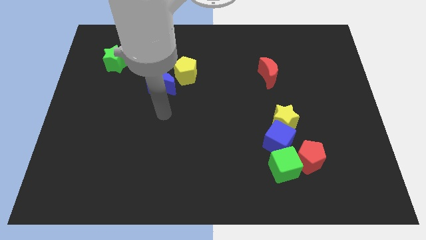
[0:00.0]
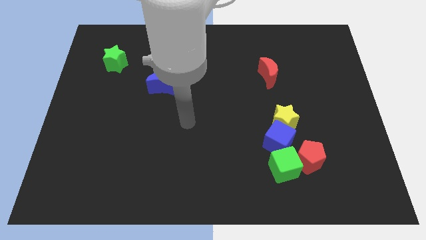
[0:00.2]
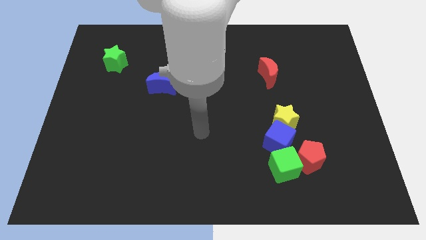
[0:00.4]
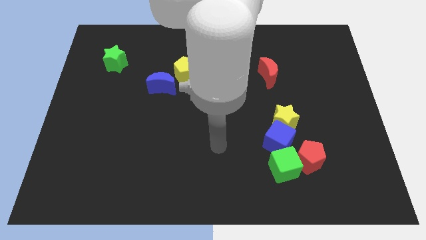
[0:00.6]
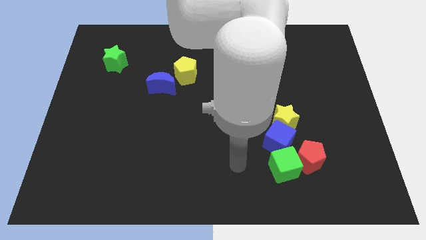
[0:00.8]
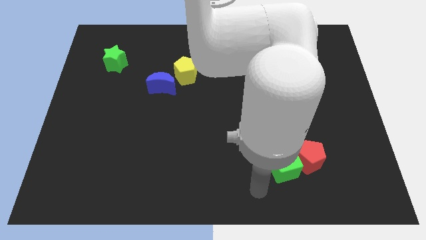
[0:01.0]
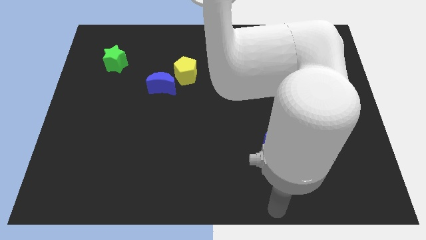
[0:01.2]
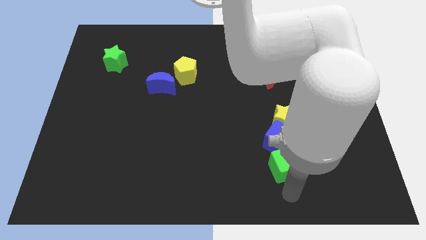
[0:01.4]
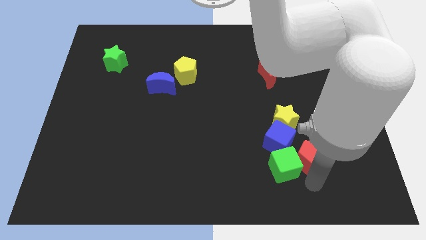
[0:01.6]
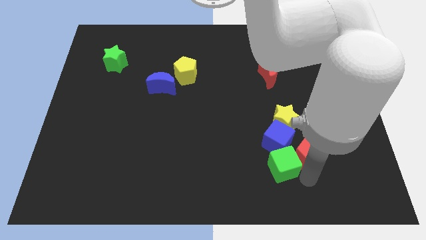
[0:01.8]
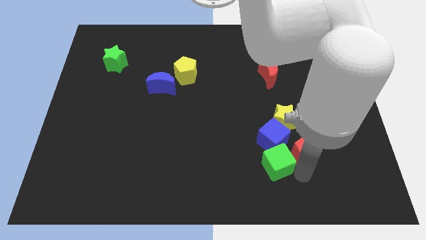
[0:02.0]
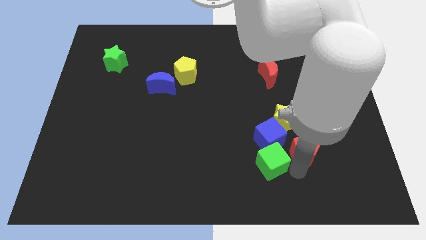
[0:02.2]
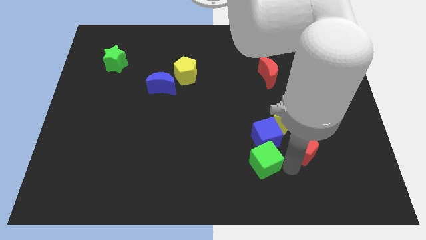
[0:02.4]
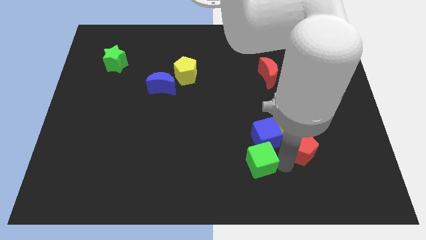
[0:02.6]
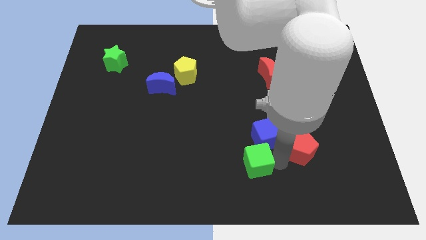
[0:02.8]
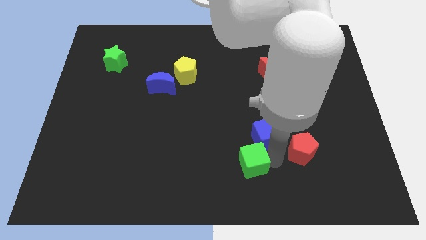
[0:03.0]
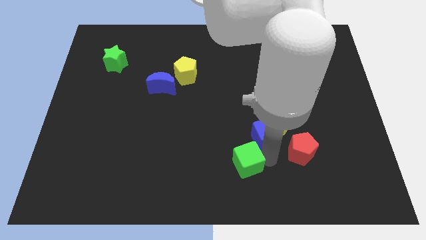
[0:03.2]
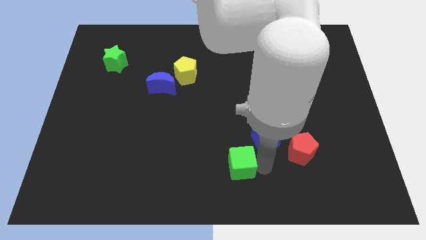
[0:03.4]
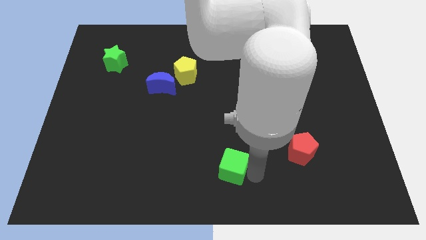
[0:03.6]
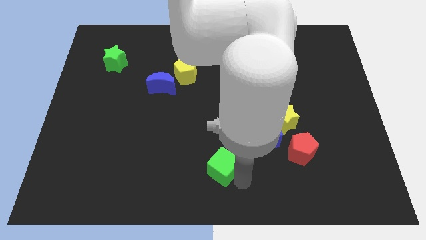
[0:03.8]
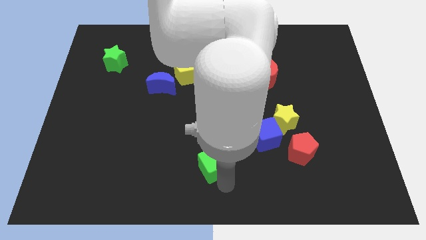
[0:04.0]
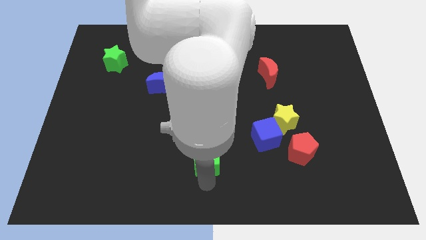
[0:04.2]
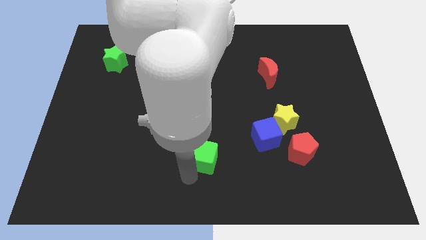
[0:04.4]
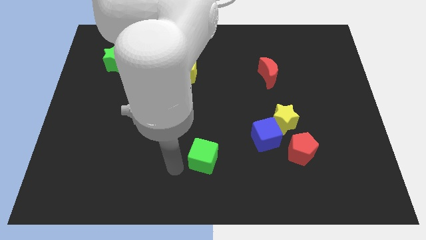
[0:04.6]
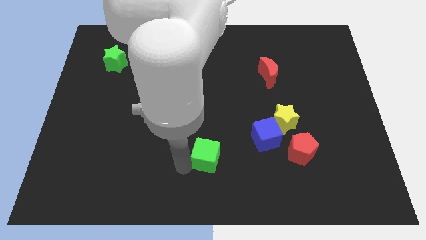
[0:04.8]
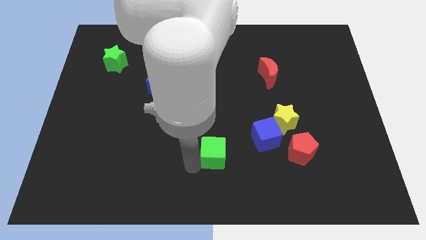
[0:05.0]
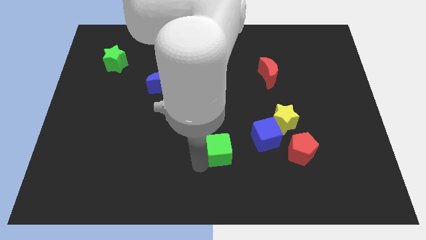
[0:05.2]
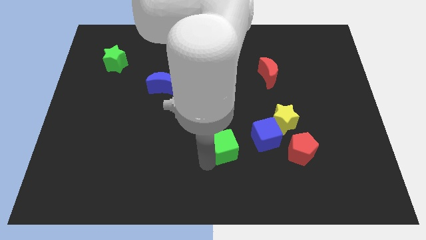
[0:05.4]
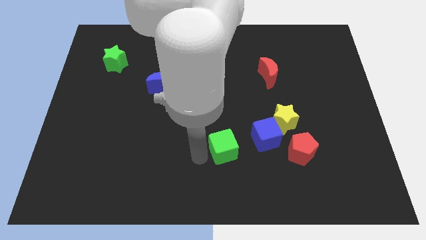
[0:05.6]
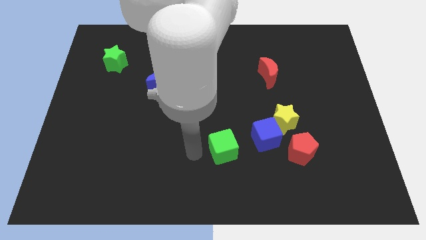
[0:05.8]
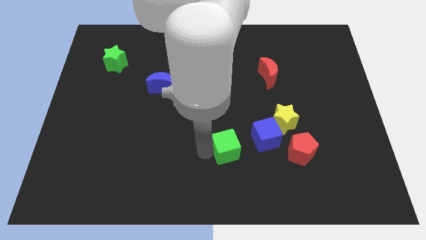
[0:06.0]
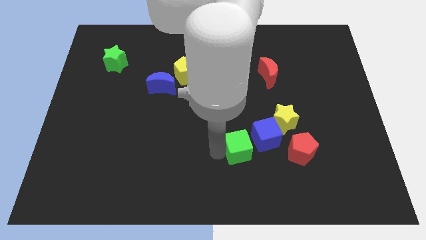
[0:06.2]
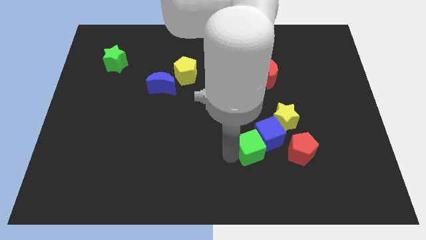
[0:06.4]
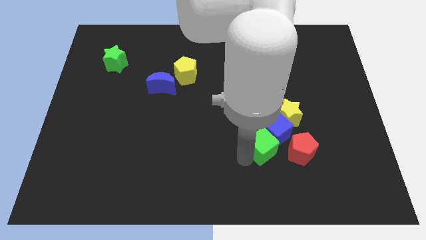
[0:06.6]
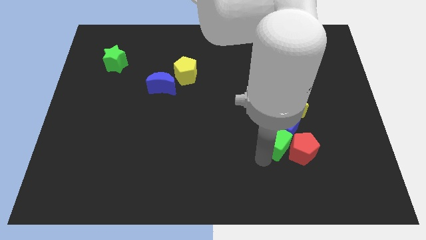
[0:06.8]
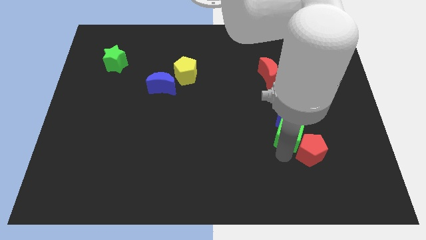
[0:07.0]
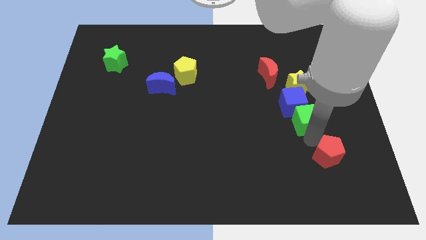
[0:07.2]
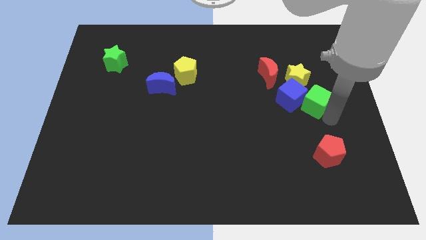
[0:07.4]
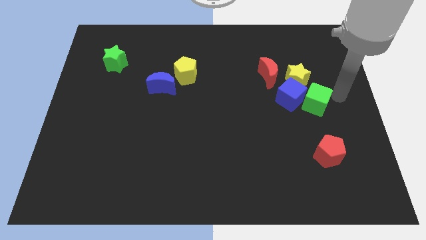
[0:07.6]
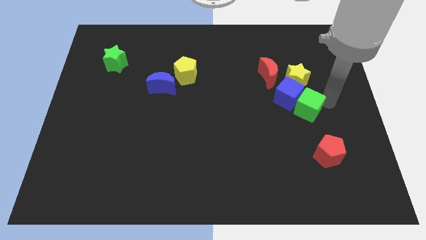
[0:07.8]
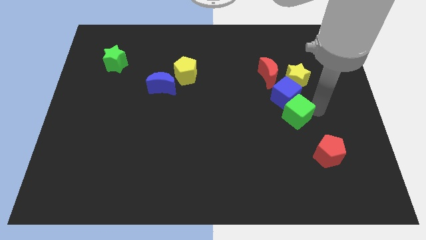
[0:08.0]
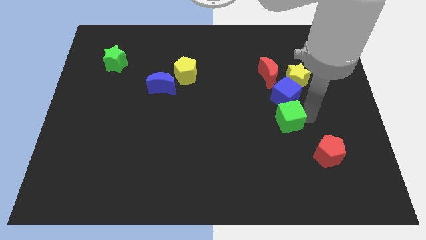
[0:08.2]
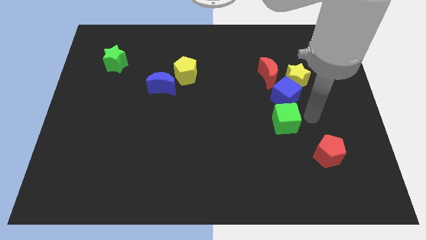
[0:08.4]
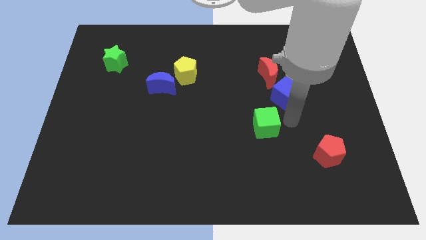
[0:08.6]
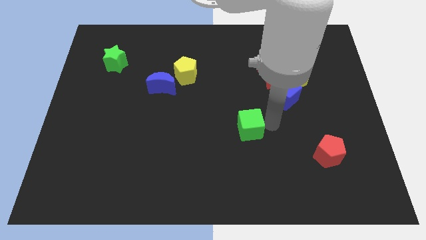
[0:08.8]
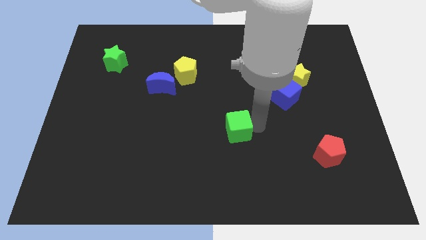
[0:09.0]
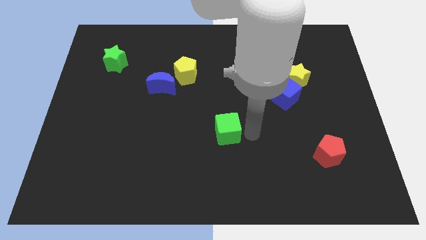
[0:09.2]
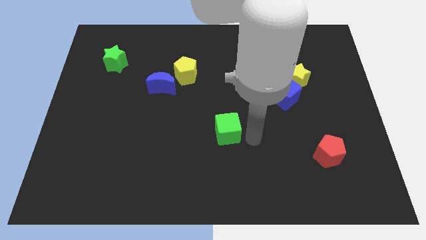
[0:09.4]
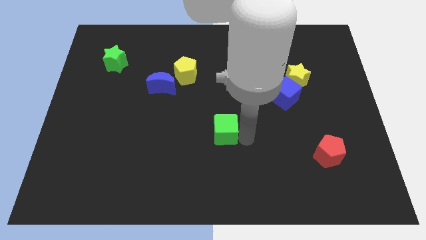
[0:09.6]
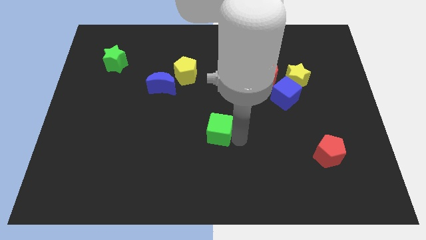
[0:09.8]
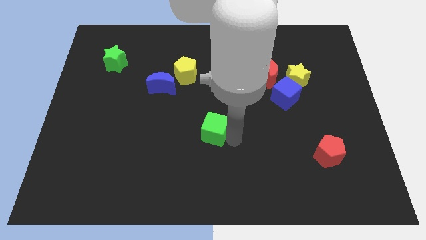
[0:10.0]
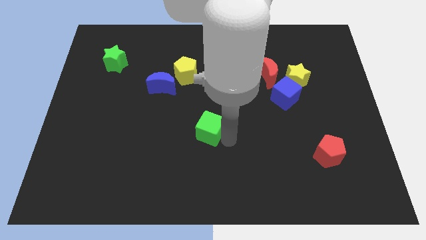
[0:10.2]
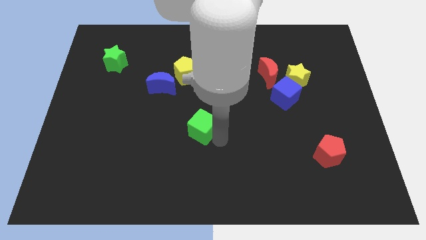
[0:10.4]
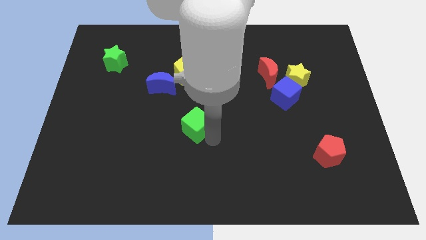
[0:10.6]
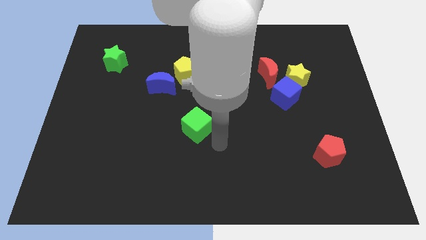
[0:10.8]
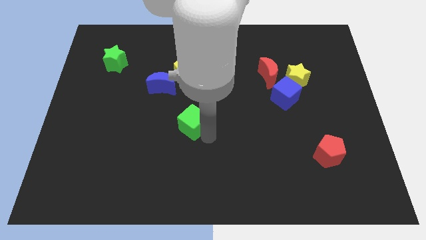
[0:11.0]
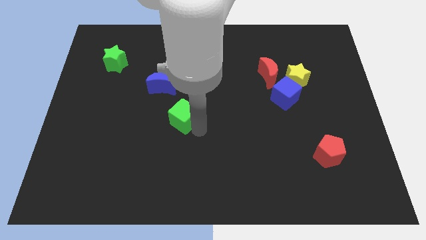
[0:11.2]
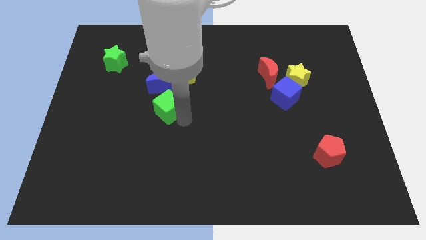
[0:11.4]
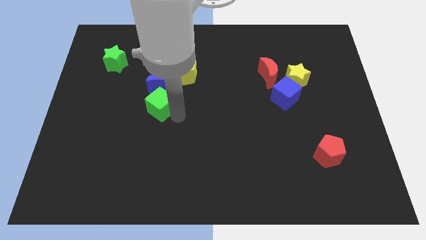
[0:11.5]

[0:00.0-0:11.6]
slide the green cube to the bottom left of the yellow pentagon

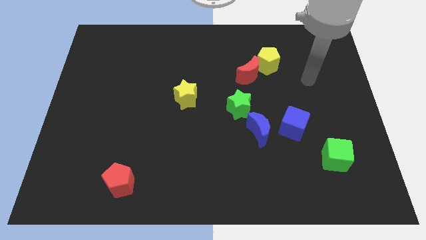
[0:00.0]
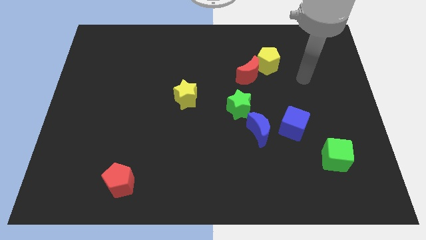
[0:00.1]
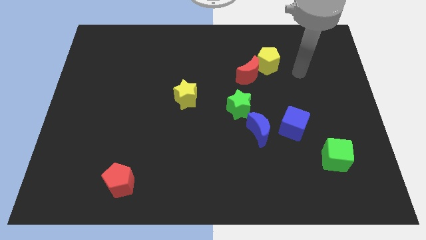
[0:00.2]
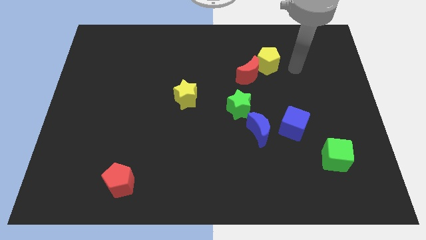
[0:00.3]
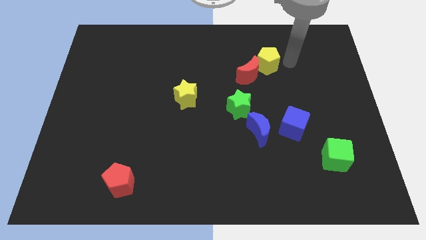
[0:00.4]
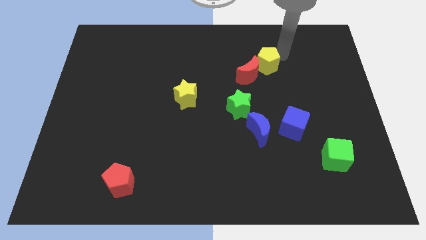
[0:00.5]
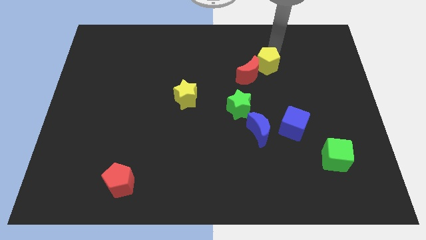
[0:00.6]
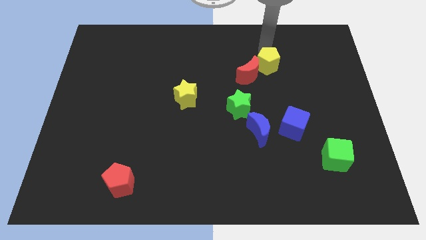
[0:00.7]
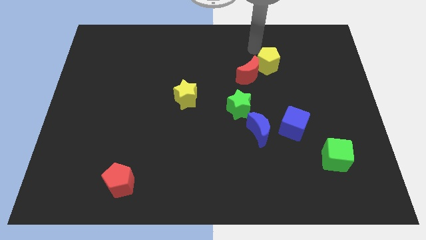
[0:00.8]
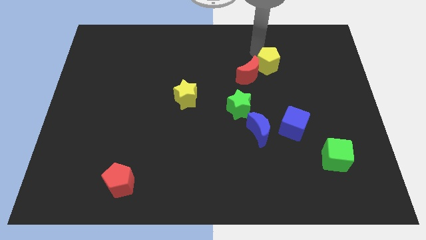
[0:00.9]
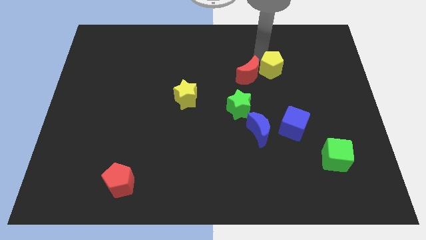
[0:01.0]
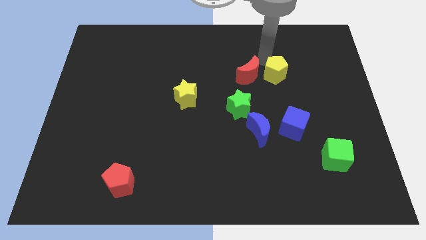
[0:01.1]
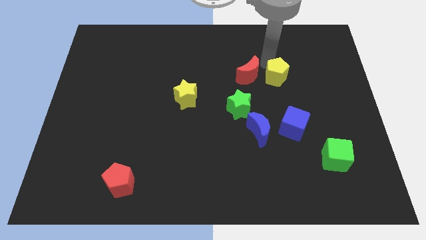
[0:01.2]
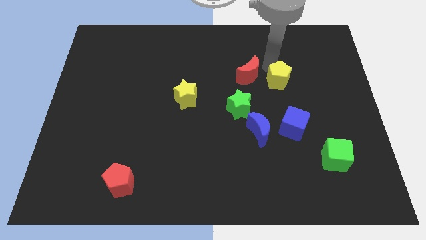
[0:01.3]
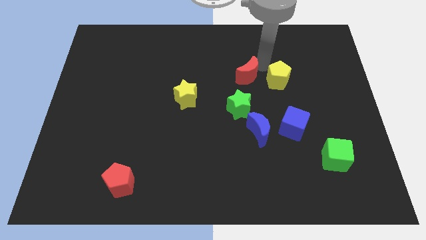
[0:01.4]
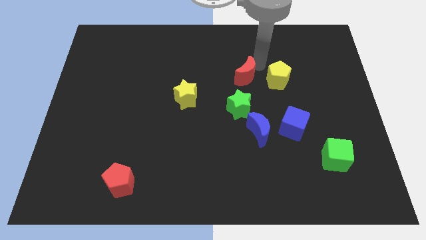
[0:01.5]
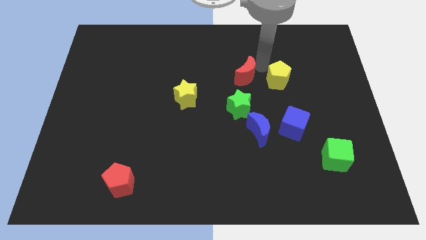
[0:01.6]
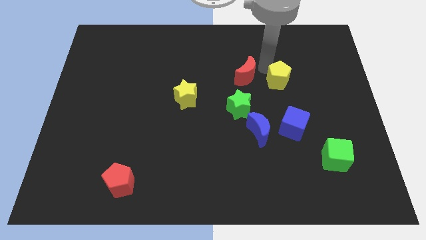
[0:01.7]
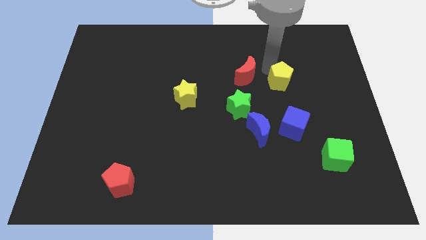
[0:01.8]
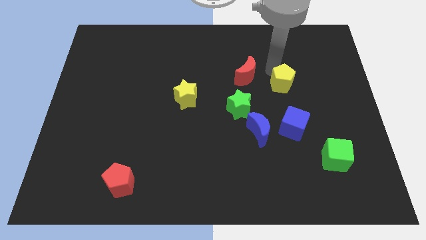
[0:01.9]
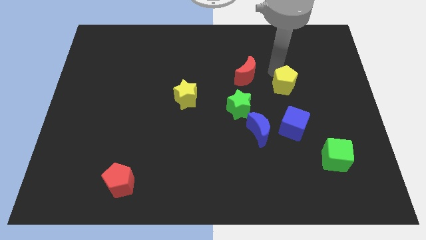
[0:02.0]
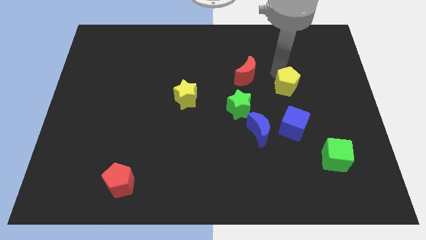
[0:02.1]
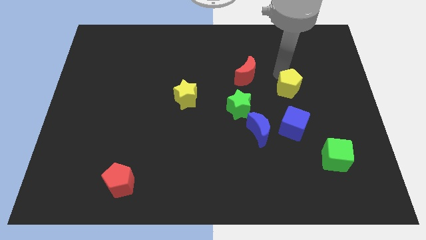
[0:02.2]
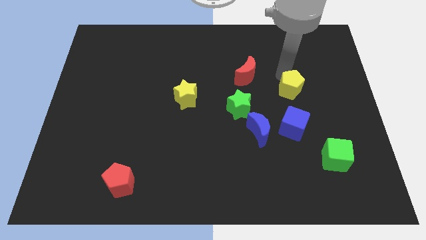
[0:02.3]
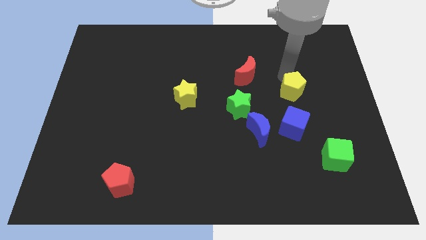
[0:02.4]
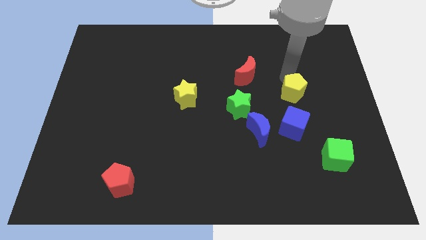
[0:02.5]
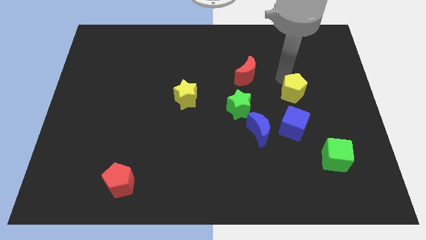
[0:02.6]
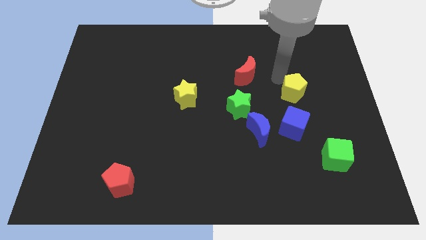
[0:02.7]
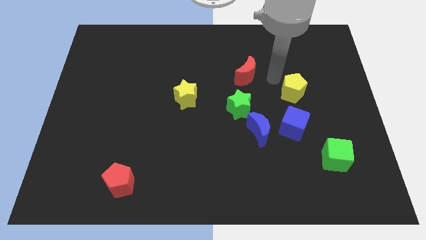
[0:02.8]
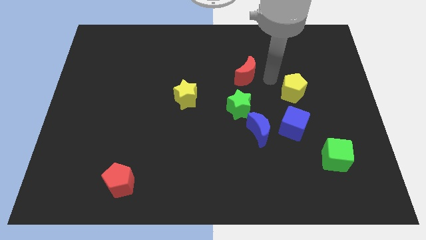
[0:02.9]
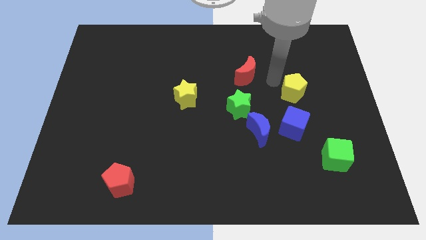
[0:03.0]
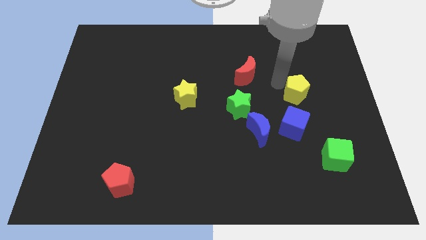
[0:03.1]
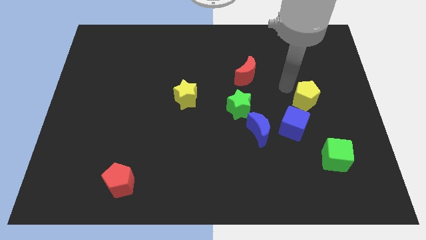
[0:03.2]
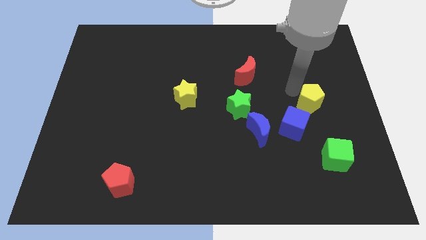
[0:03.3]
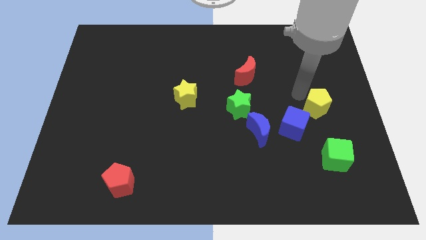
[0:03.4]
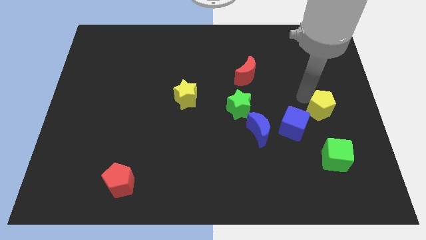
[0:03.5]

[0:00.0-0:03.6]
slide the yellow pentagon to the right of the blue cube
